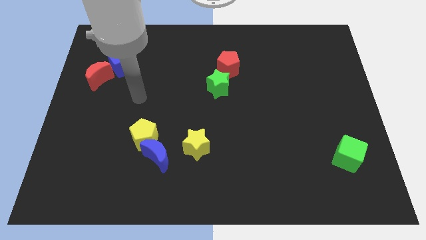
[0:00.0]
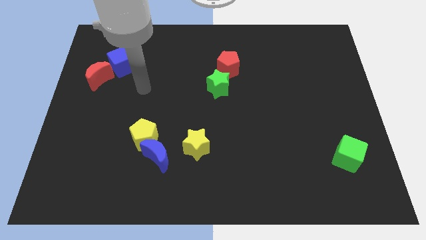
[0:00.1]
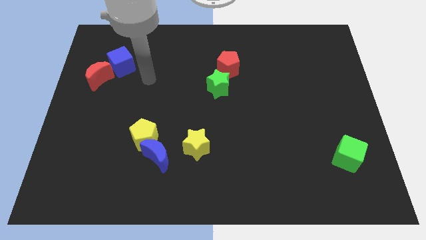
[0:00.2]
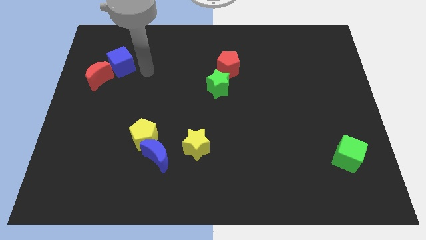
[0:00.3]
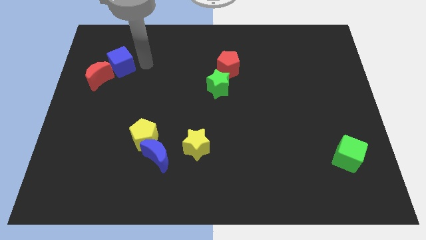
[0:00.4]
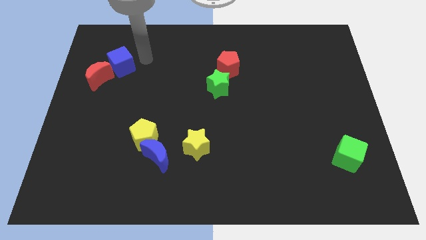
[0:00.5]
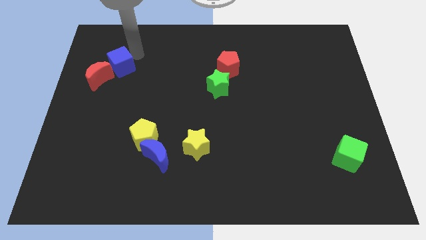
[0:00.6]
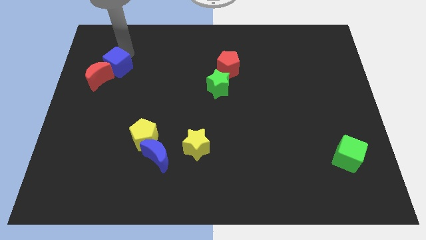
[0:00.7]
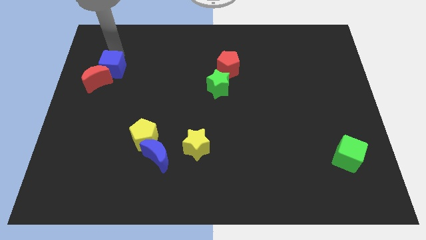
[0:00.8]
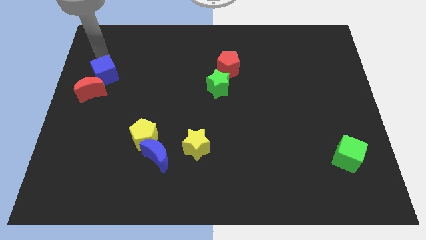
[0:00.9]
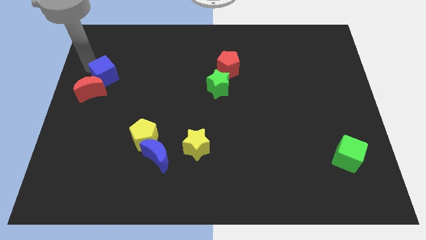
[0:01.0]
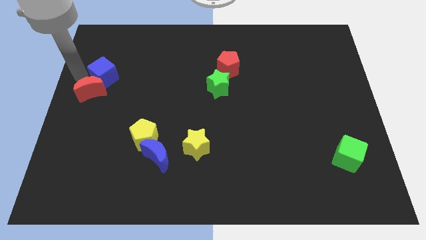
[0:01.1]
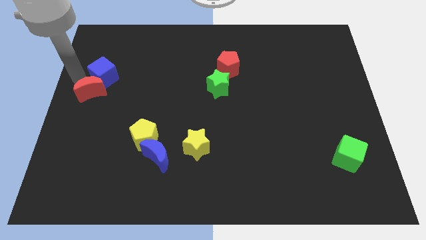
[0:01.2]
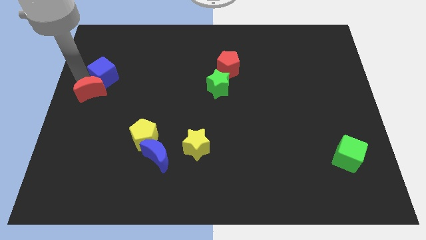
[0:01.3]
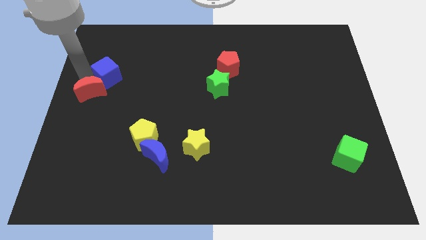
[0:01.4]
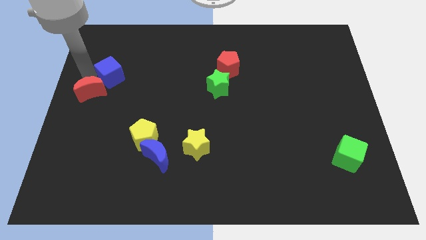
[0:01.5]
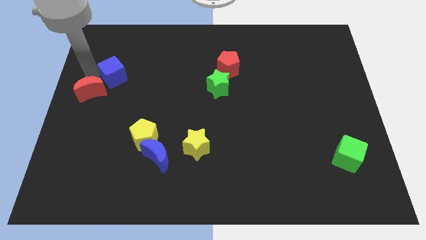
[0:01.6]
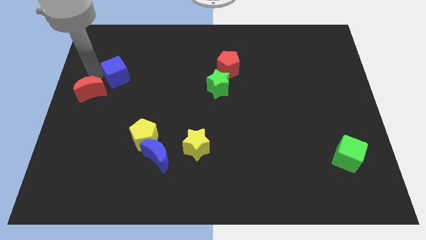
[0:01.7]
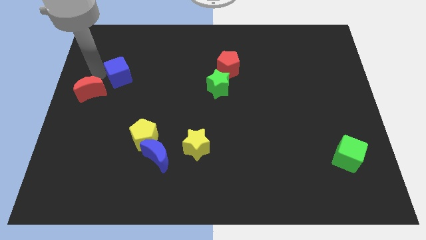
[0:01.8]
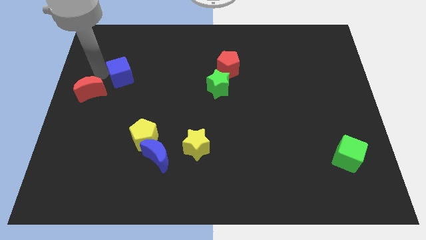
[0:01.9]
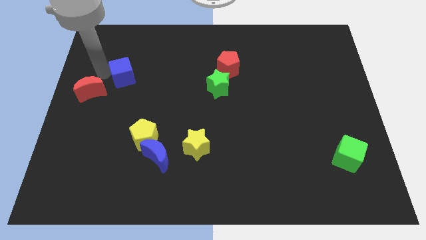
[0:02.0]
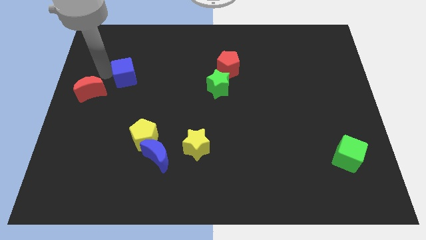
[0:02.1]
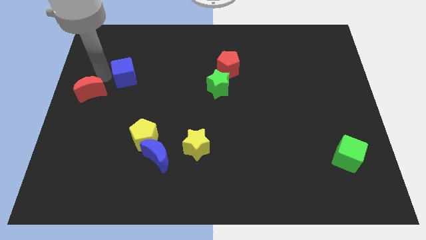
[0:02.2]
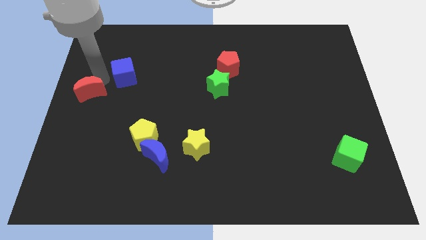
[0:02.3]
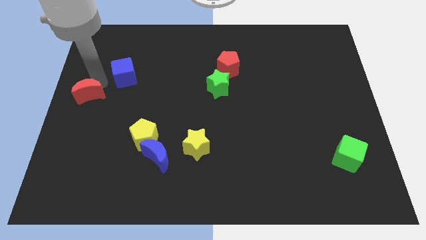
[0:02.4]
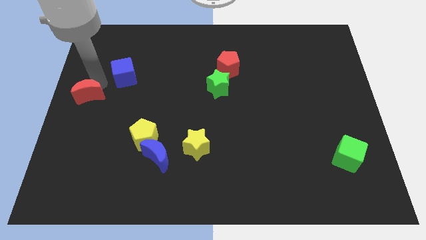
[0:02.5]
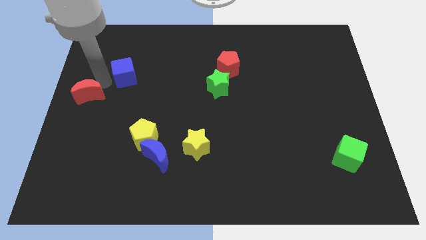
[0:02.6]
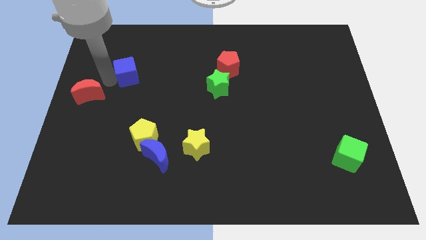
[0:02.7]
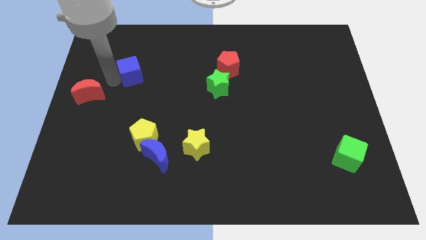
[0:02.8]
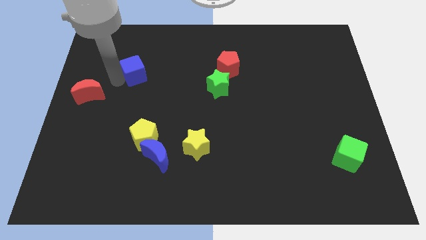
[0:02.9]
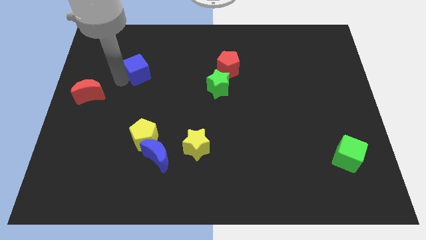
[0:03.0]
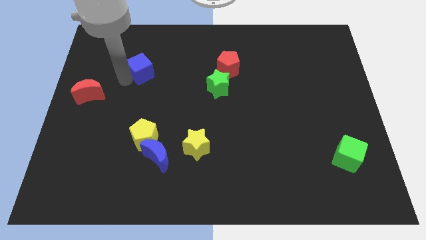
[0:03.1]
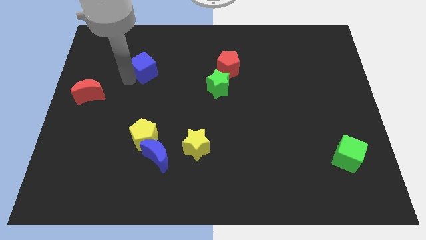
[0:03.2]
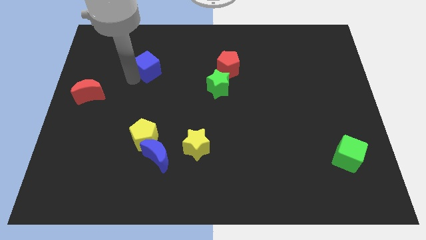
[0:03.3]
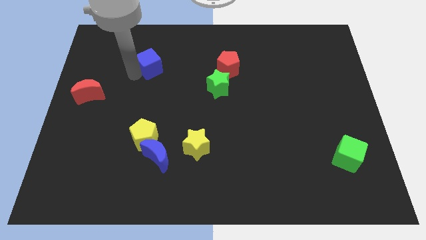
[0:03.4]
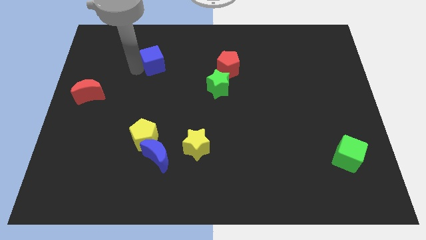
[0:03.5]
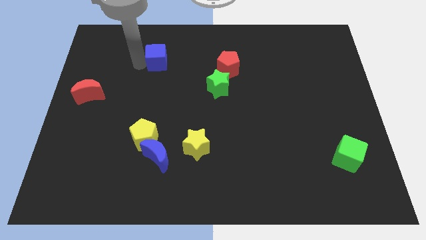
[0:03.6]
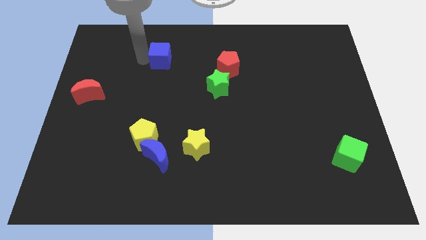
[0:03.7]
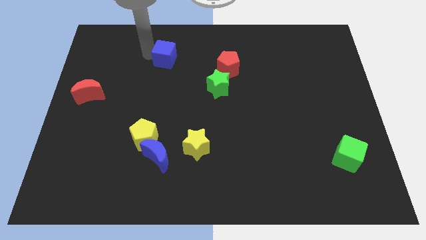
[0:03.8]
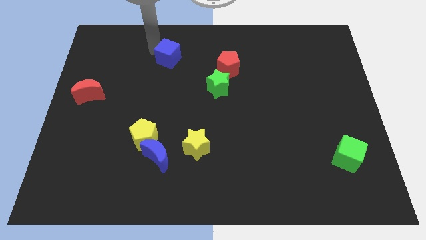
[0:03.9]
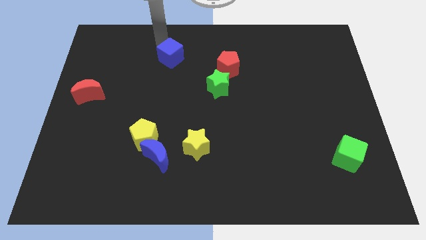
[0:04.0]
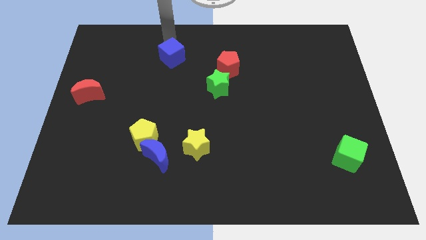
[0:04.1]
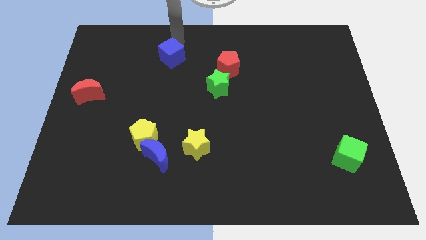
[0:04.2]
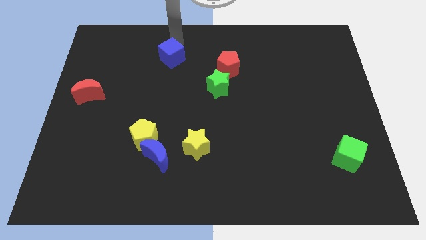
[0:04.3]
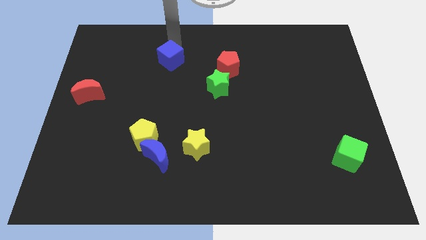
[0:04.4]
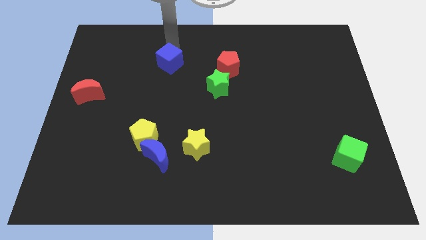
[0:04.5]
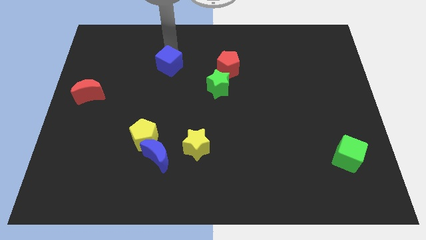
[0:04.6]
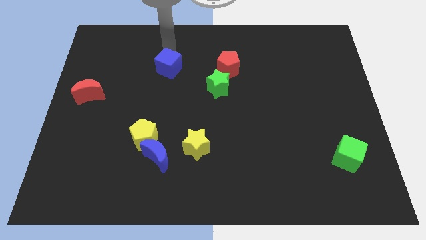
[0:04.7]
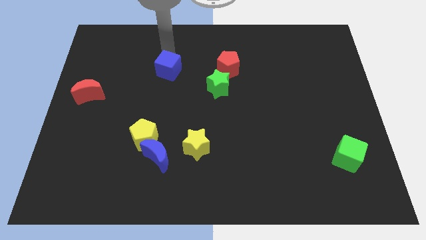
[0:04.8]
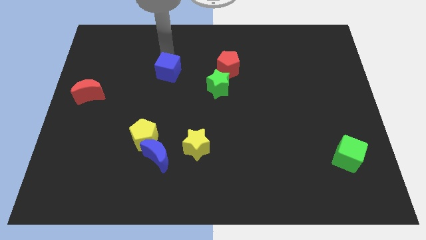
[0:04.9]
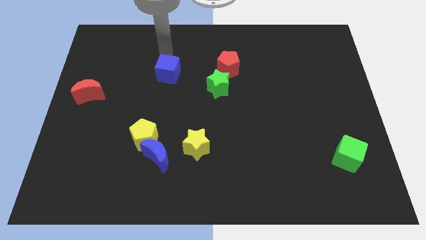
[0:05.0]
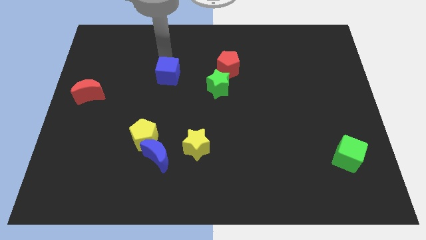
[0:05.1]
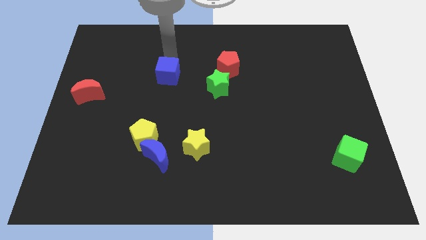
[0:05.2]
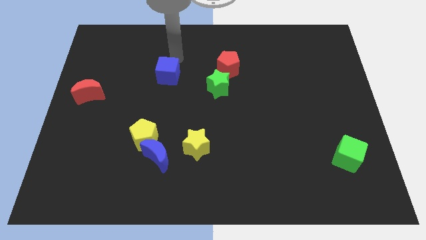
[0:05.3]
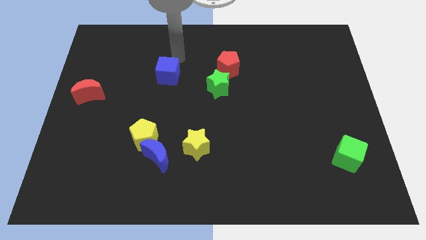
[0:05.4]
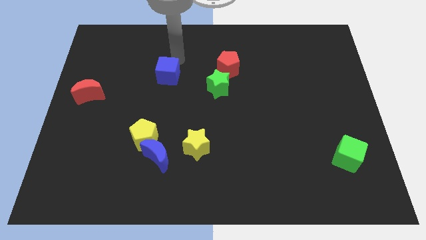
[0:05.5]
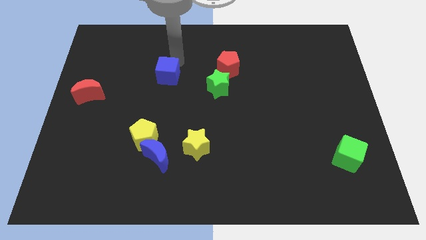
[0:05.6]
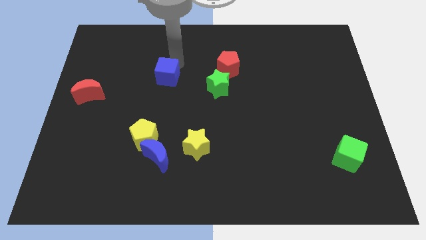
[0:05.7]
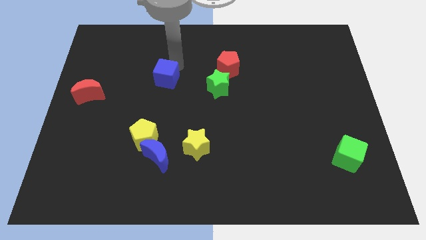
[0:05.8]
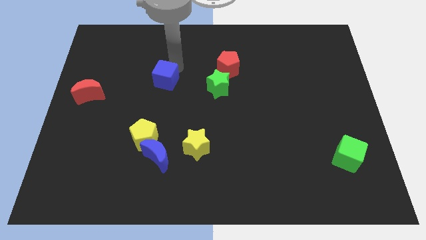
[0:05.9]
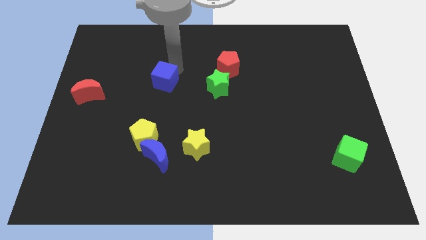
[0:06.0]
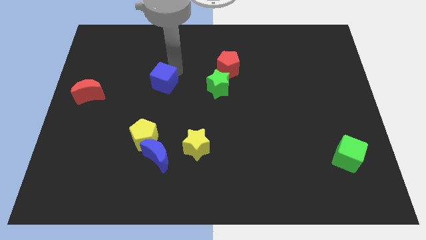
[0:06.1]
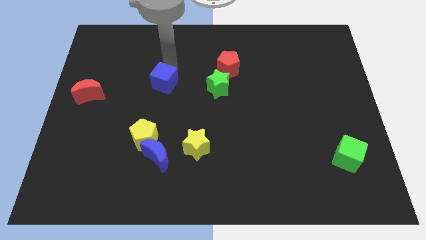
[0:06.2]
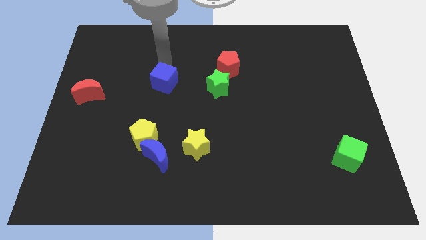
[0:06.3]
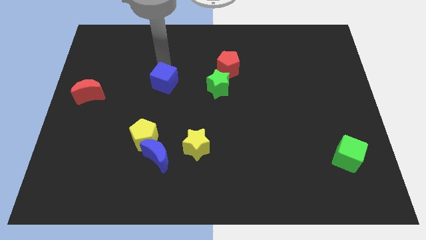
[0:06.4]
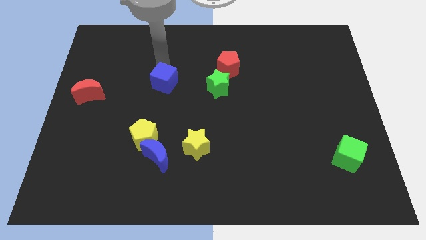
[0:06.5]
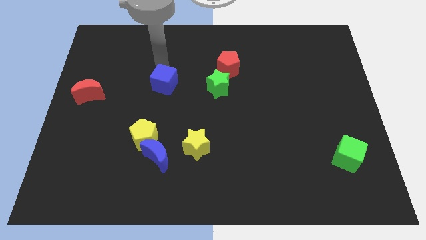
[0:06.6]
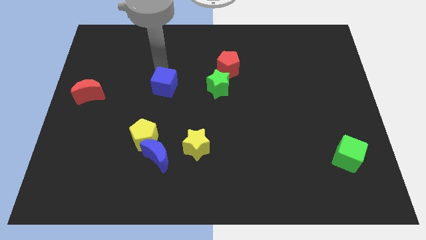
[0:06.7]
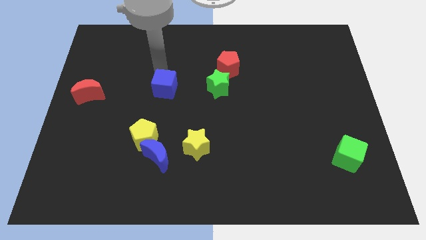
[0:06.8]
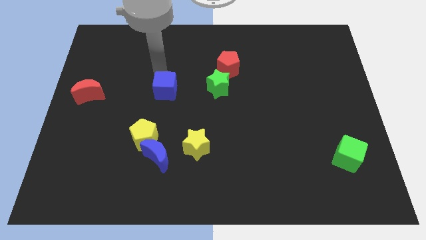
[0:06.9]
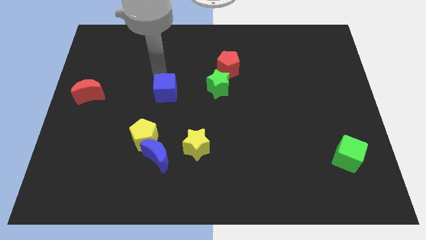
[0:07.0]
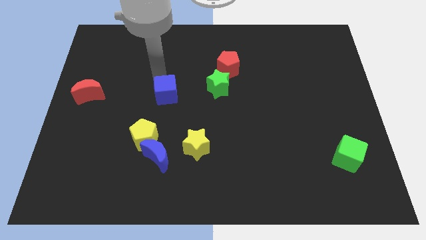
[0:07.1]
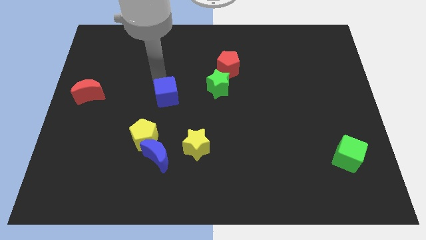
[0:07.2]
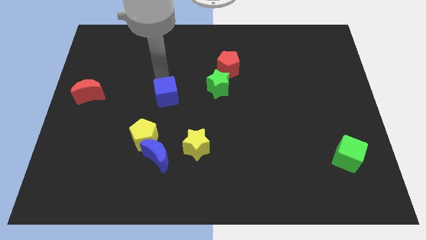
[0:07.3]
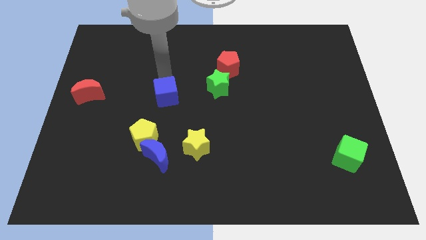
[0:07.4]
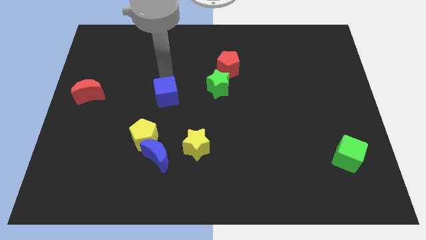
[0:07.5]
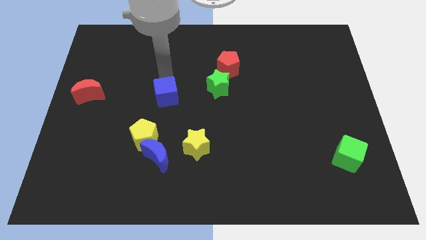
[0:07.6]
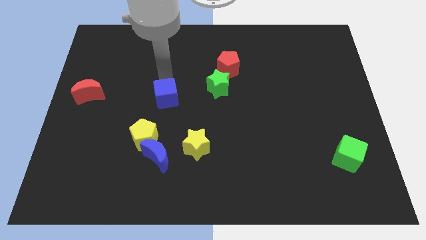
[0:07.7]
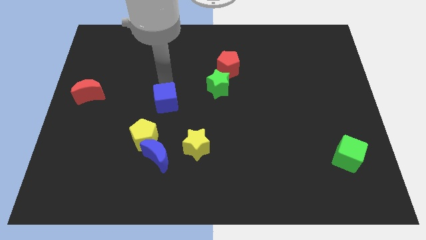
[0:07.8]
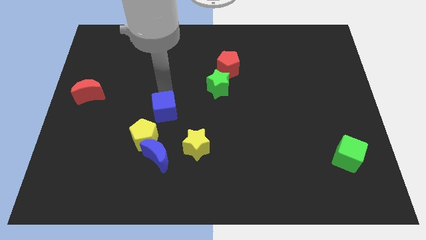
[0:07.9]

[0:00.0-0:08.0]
slide the blue cube to the top left of the yellow star
